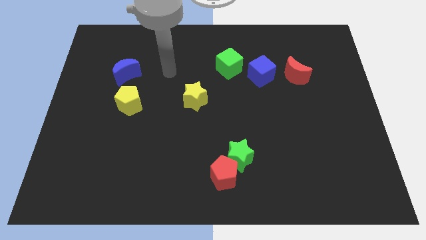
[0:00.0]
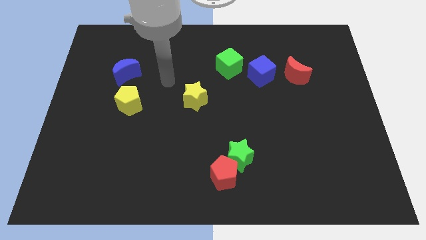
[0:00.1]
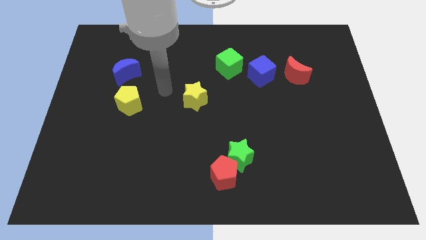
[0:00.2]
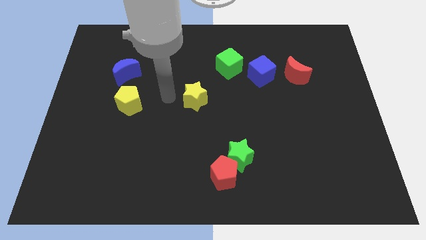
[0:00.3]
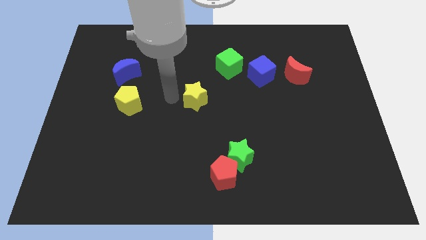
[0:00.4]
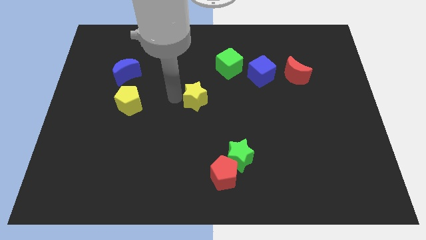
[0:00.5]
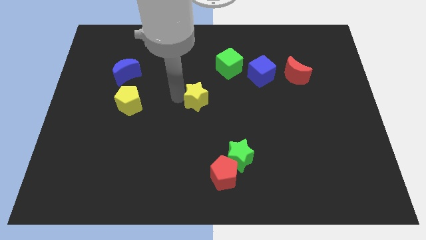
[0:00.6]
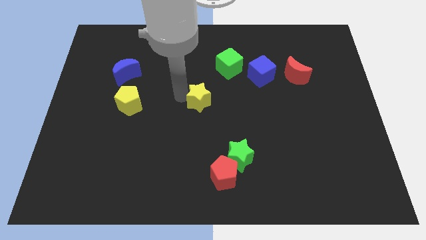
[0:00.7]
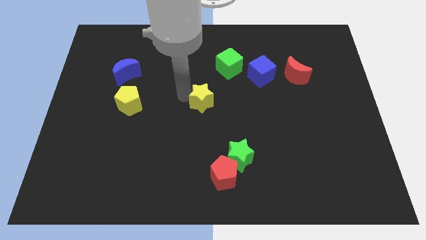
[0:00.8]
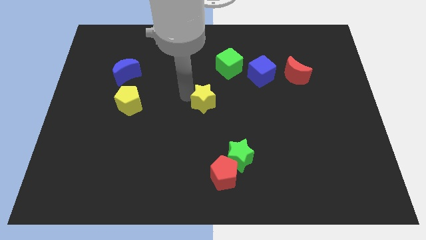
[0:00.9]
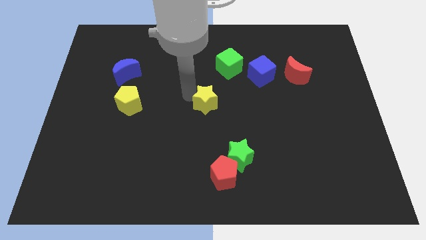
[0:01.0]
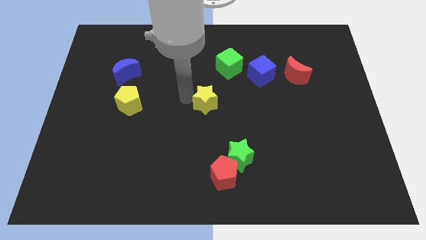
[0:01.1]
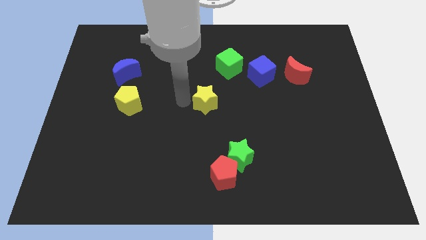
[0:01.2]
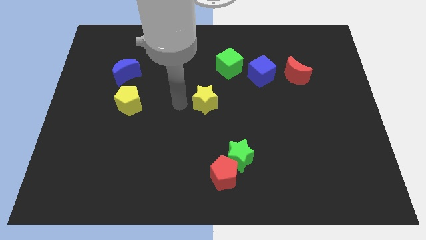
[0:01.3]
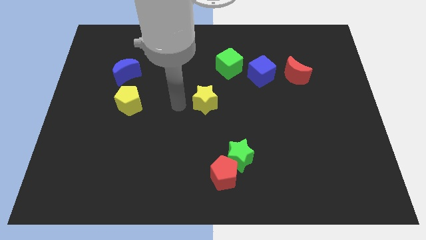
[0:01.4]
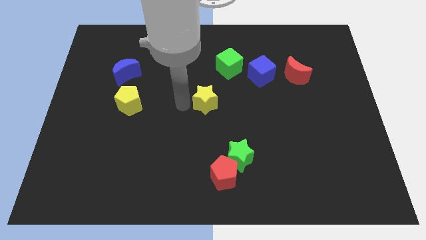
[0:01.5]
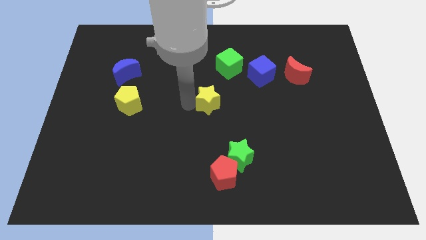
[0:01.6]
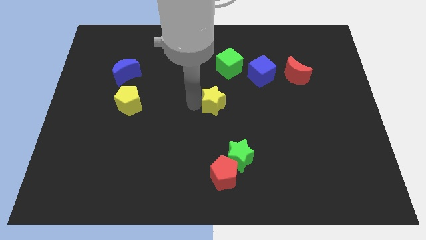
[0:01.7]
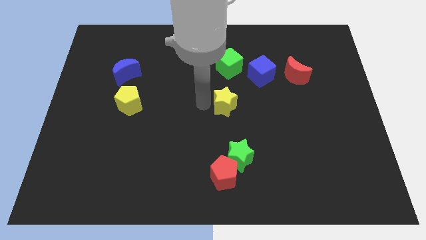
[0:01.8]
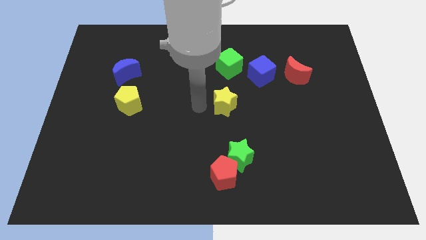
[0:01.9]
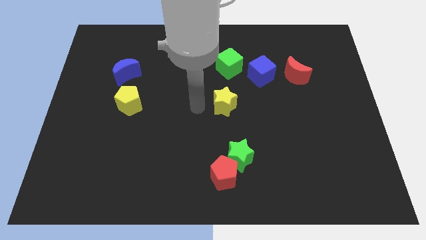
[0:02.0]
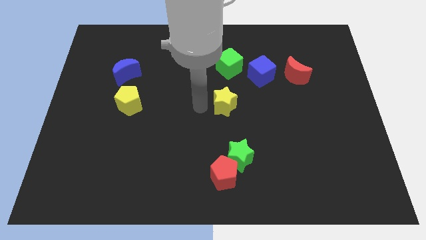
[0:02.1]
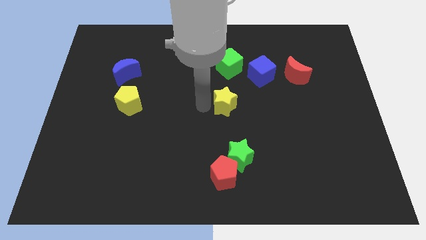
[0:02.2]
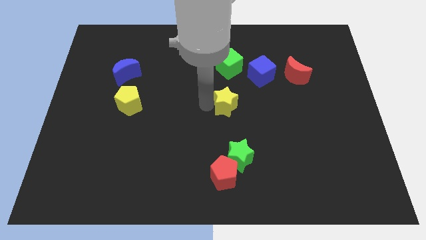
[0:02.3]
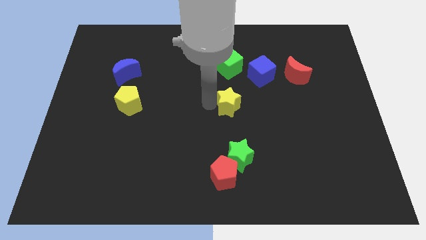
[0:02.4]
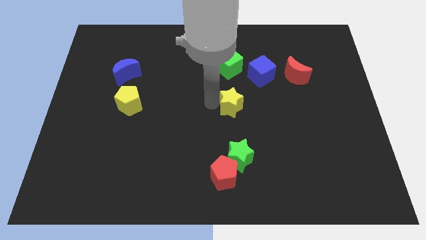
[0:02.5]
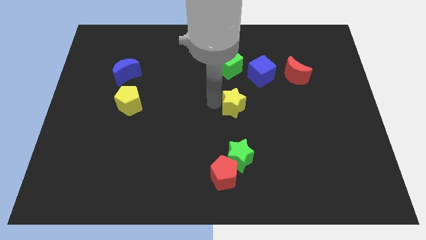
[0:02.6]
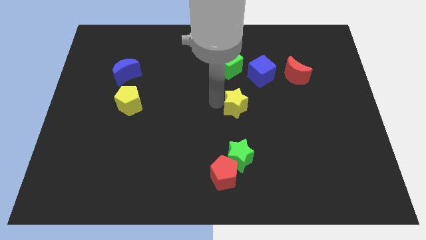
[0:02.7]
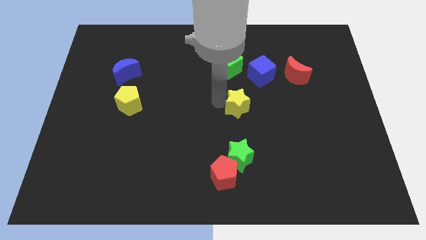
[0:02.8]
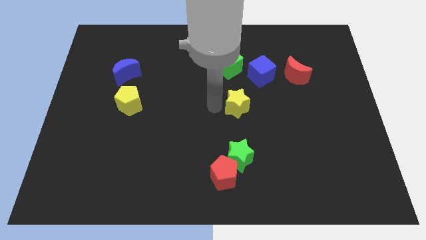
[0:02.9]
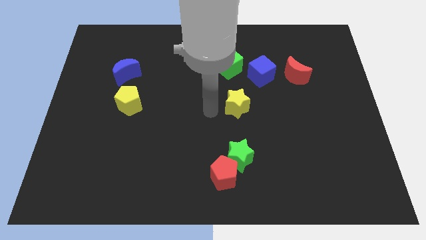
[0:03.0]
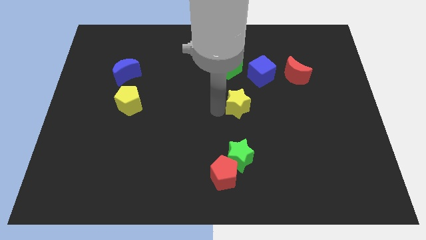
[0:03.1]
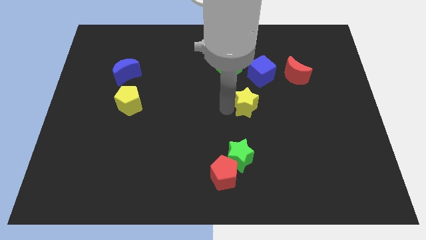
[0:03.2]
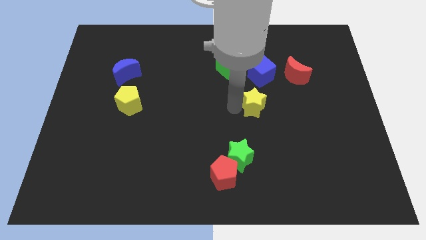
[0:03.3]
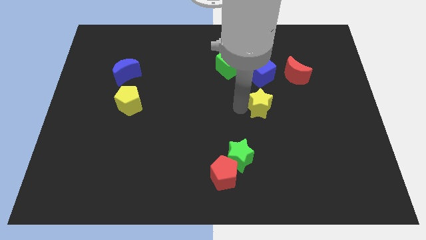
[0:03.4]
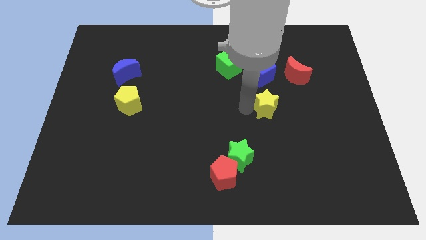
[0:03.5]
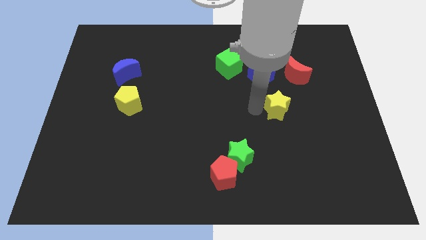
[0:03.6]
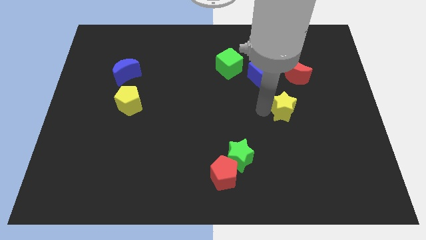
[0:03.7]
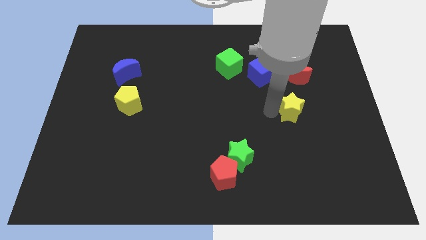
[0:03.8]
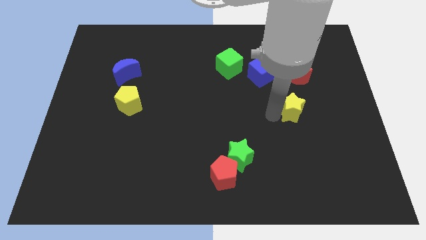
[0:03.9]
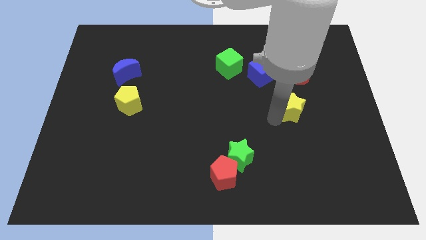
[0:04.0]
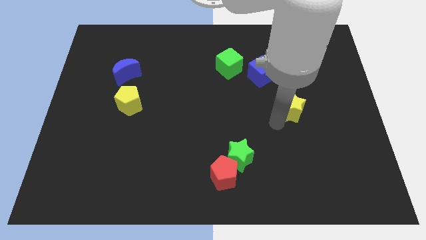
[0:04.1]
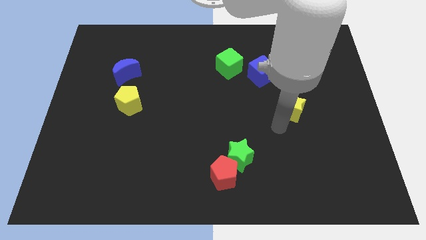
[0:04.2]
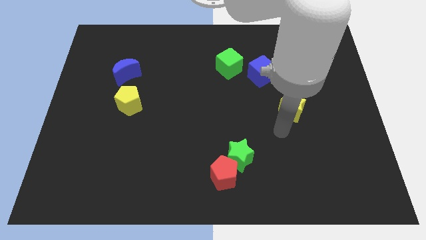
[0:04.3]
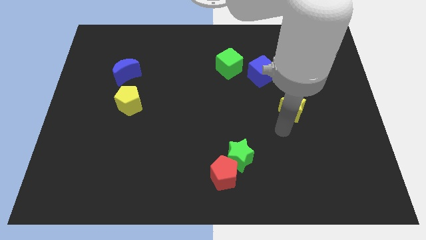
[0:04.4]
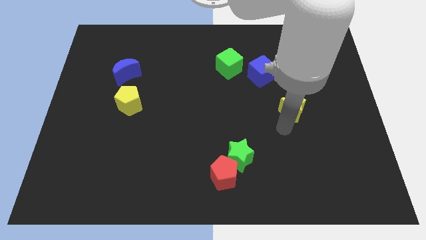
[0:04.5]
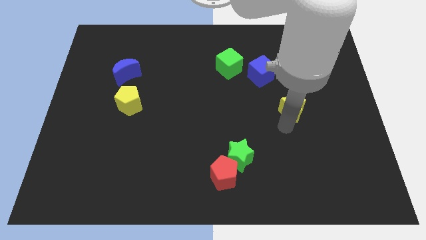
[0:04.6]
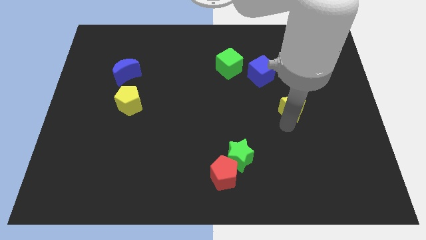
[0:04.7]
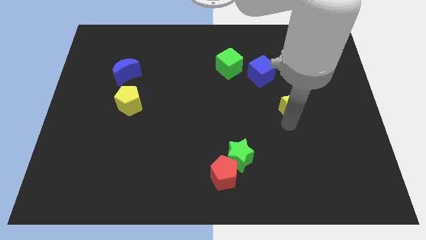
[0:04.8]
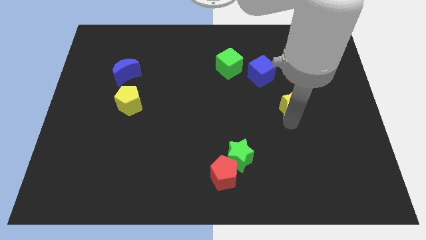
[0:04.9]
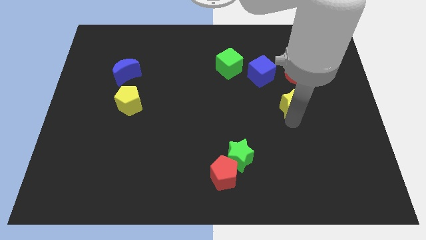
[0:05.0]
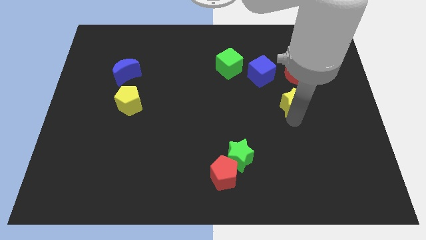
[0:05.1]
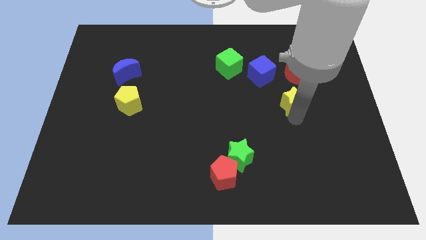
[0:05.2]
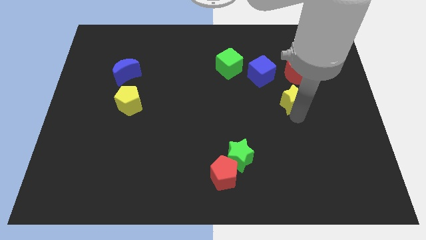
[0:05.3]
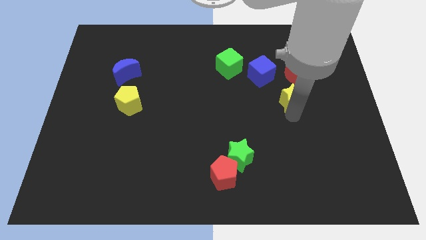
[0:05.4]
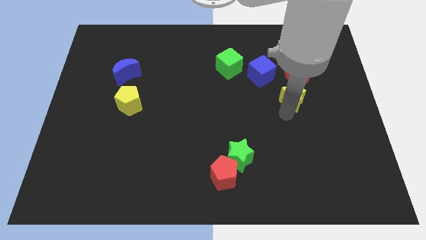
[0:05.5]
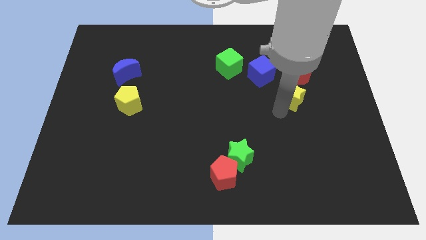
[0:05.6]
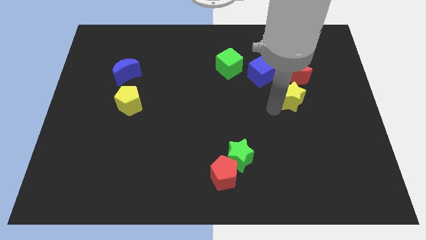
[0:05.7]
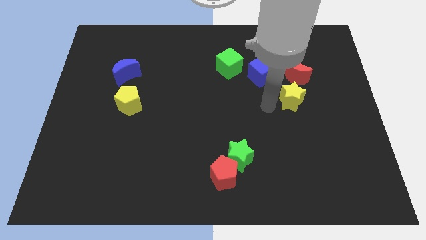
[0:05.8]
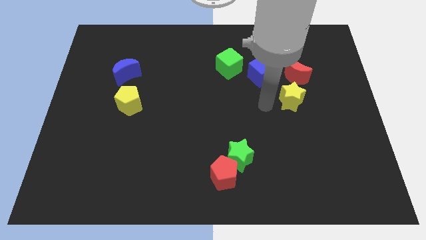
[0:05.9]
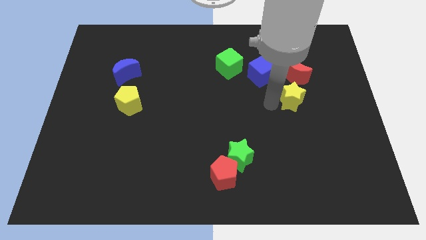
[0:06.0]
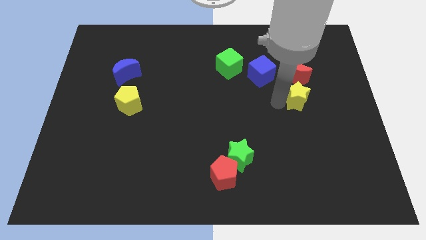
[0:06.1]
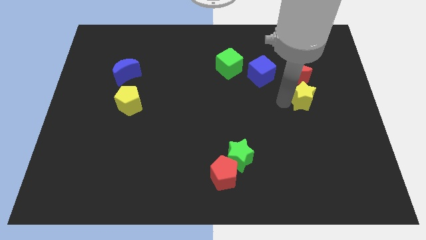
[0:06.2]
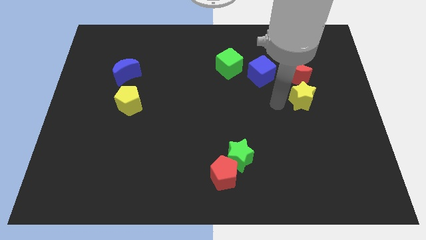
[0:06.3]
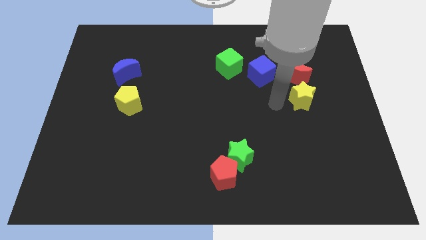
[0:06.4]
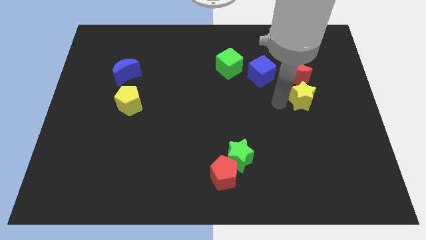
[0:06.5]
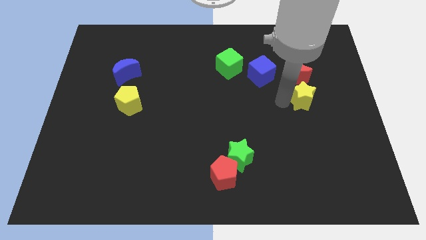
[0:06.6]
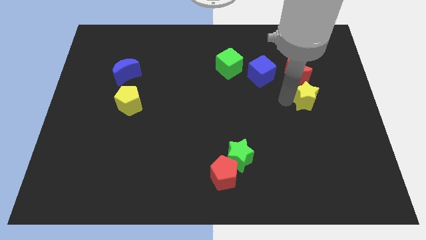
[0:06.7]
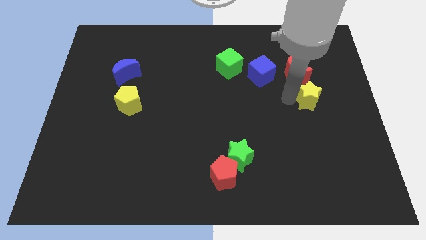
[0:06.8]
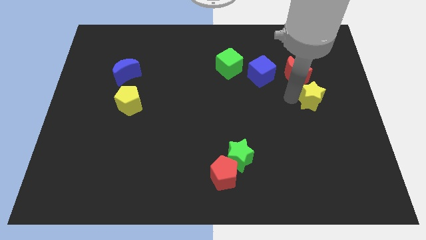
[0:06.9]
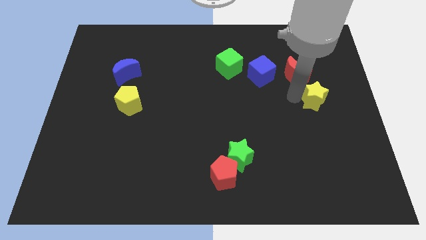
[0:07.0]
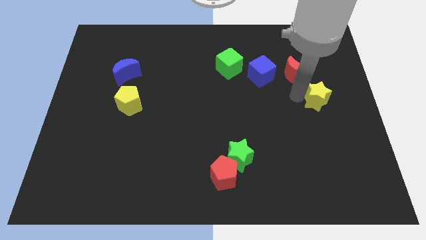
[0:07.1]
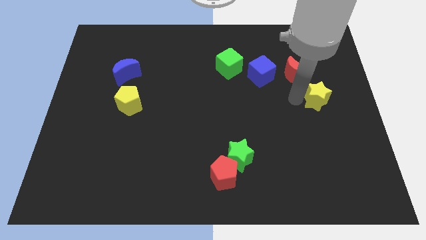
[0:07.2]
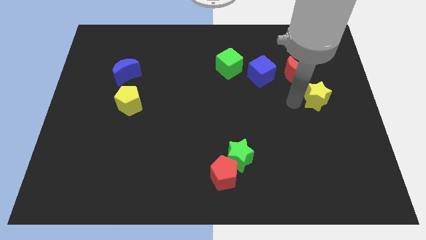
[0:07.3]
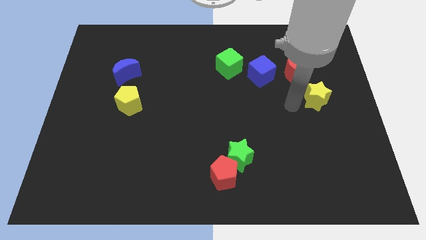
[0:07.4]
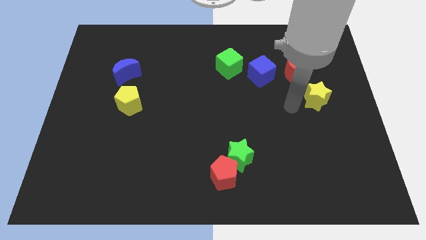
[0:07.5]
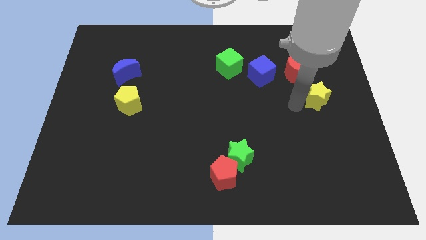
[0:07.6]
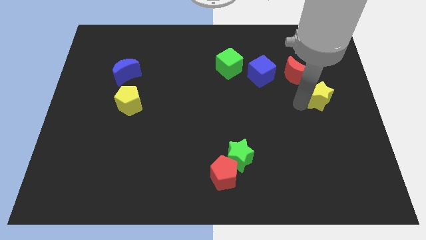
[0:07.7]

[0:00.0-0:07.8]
put the yellow star to the center right
